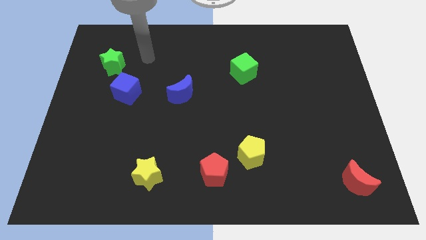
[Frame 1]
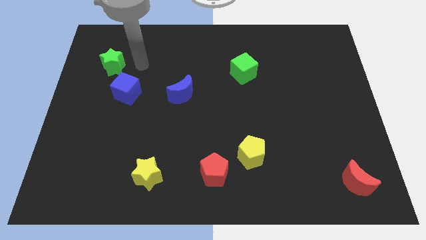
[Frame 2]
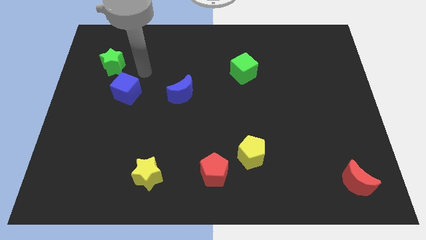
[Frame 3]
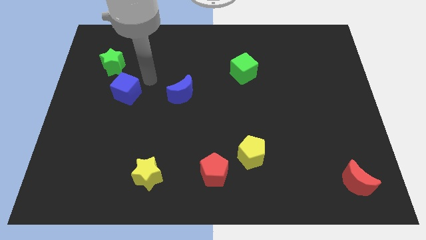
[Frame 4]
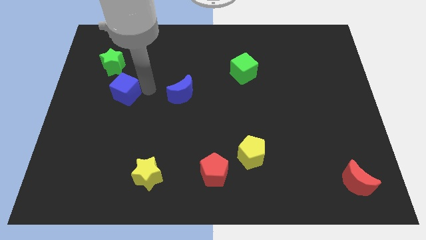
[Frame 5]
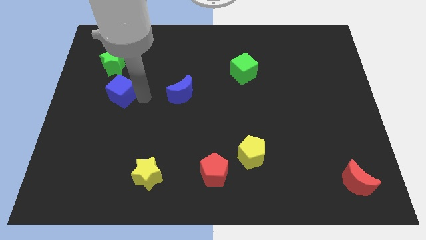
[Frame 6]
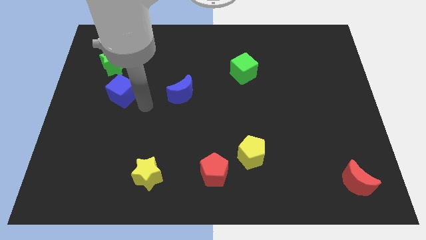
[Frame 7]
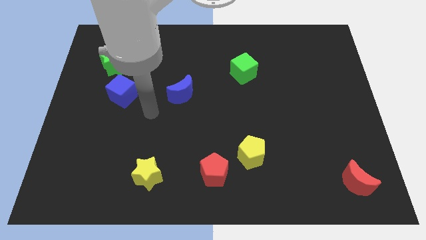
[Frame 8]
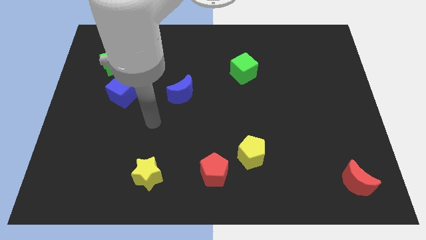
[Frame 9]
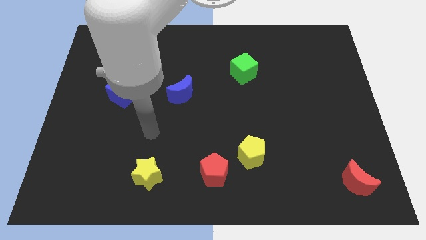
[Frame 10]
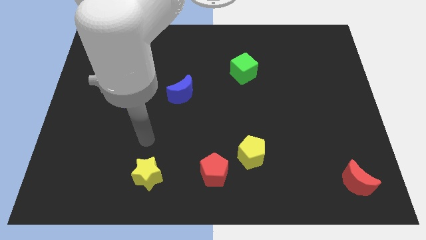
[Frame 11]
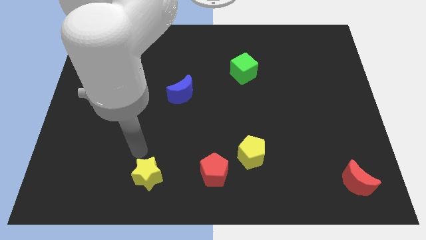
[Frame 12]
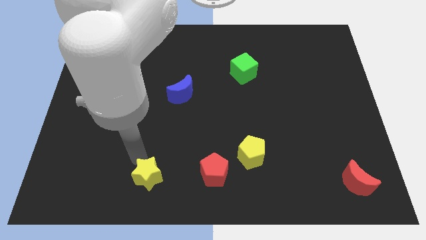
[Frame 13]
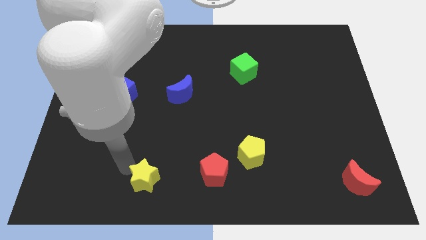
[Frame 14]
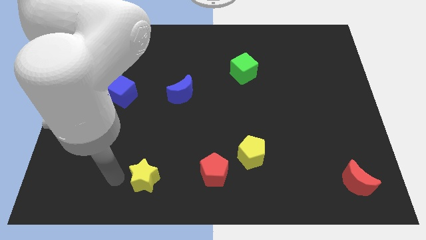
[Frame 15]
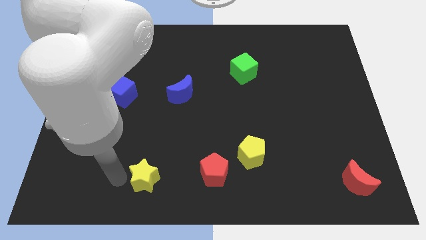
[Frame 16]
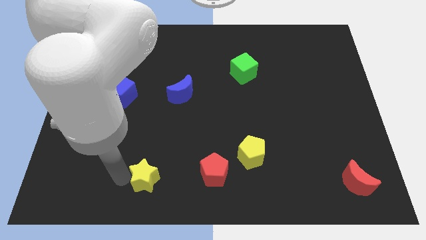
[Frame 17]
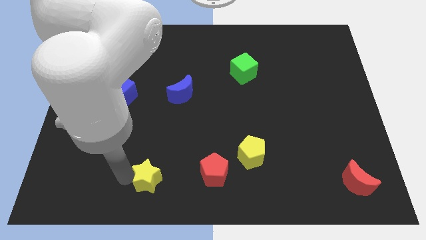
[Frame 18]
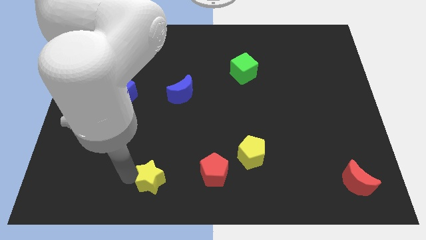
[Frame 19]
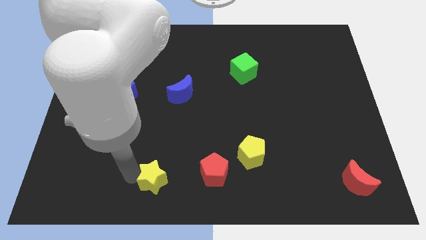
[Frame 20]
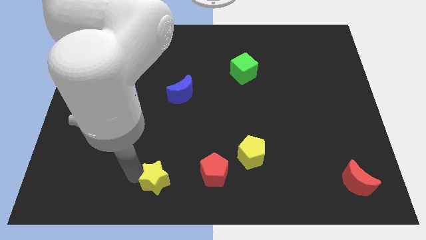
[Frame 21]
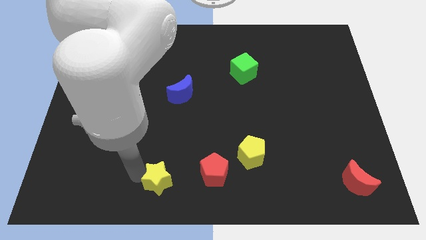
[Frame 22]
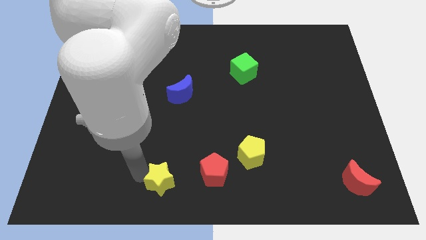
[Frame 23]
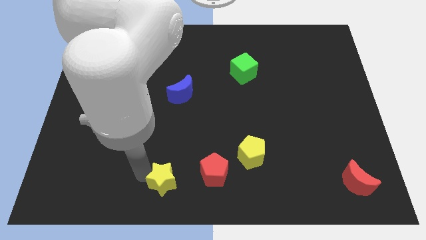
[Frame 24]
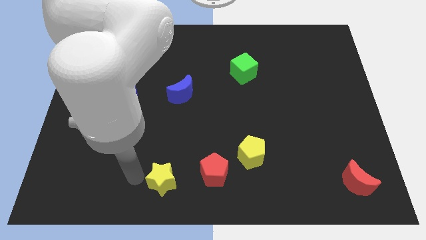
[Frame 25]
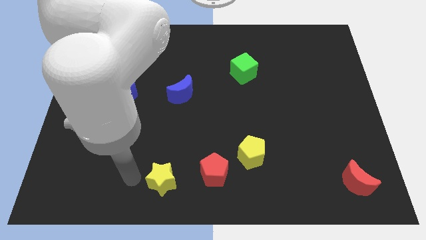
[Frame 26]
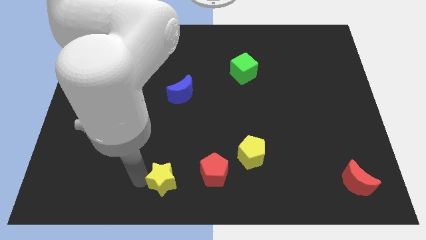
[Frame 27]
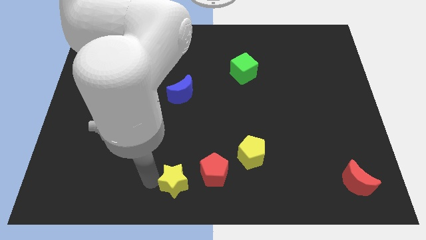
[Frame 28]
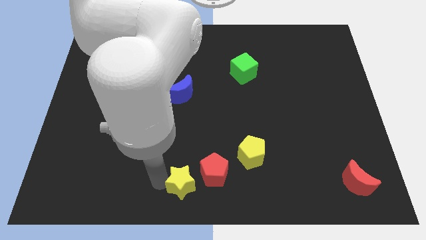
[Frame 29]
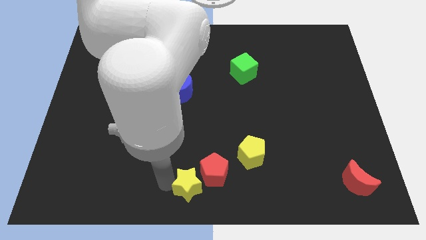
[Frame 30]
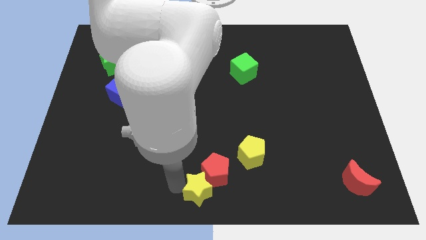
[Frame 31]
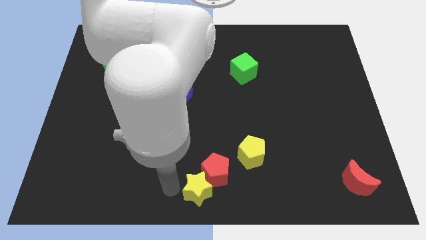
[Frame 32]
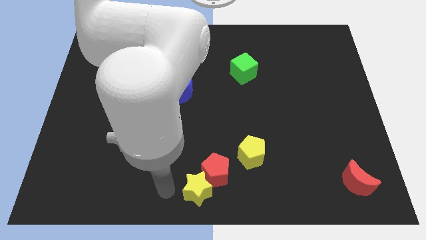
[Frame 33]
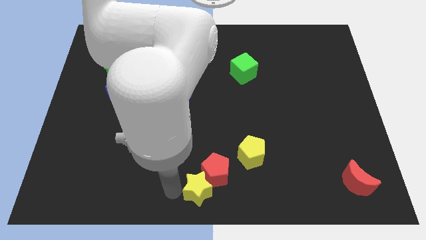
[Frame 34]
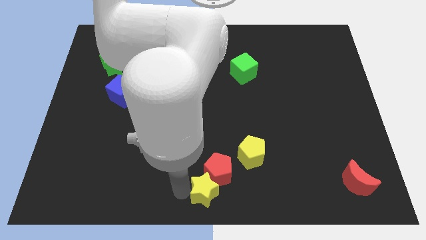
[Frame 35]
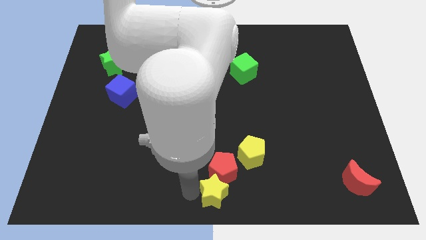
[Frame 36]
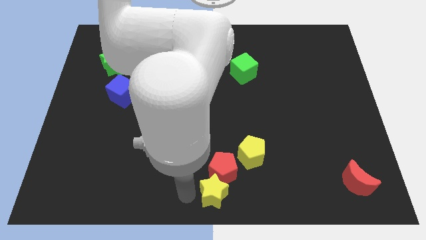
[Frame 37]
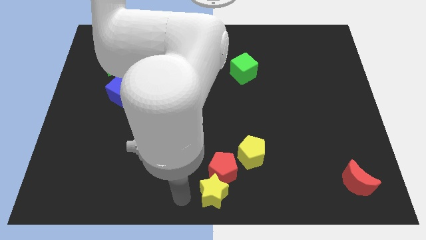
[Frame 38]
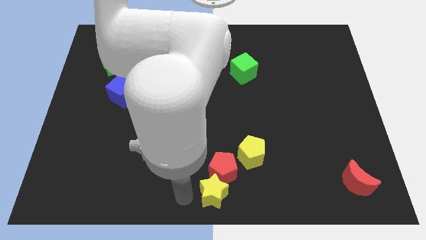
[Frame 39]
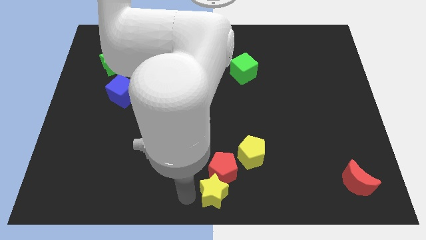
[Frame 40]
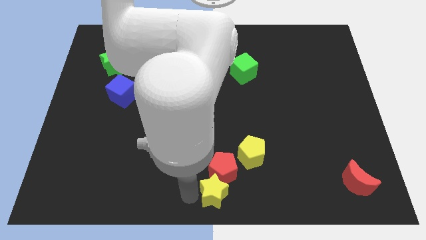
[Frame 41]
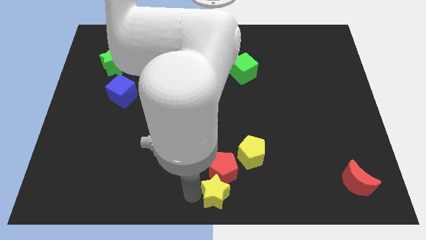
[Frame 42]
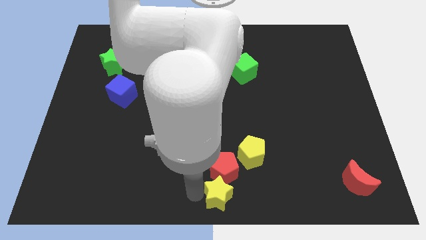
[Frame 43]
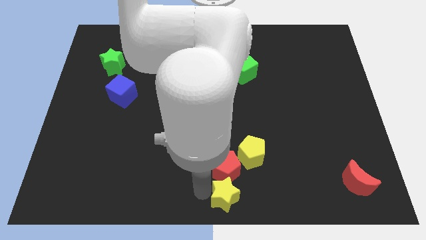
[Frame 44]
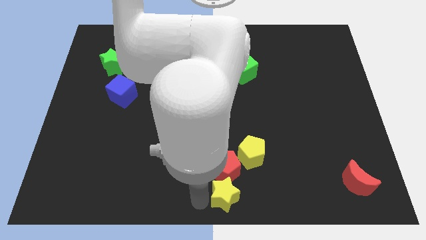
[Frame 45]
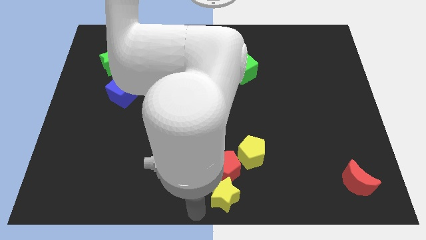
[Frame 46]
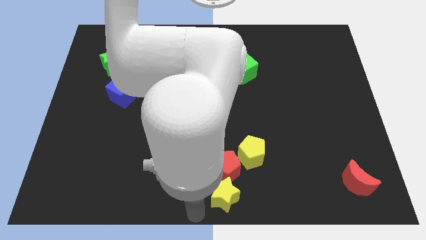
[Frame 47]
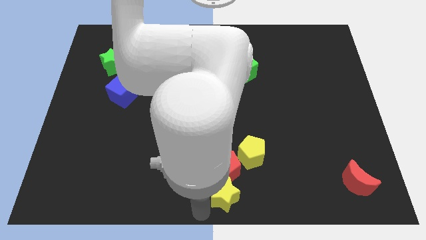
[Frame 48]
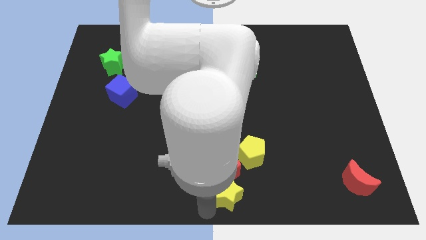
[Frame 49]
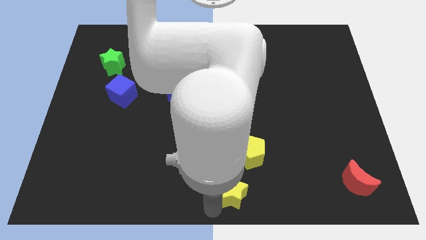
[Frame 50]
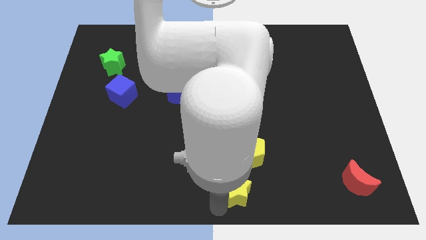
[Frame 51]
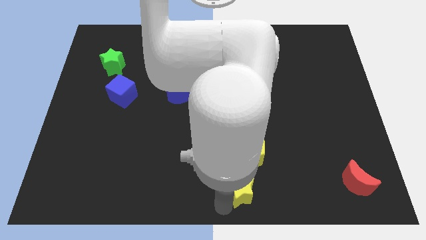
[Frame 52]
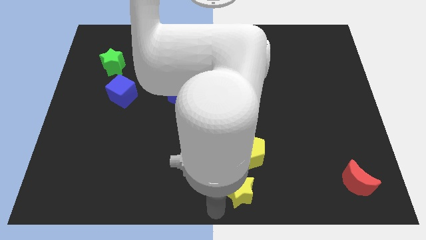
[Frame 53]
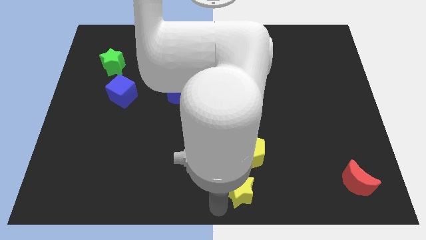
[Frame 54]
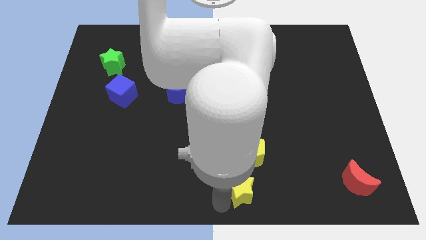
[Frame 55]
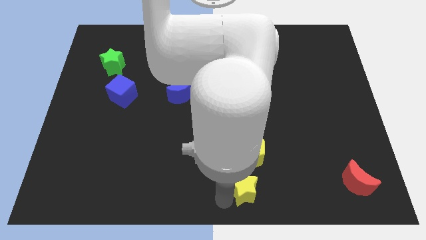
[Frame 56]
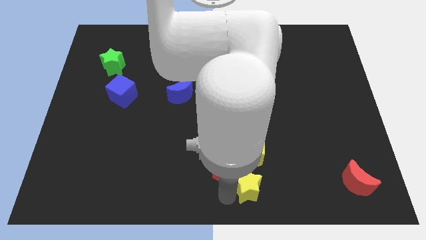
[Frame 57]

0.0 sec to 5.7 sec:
put the yellow star right of the red pentagon

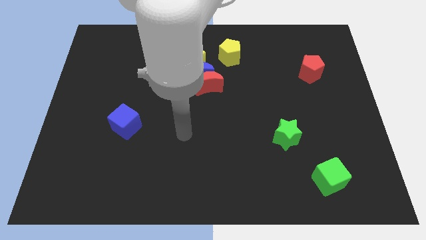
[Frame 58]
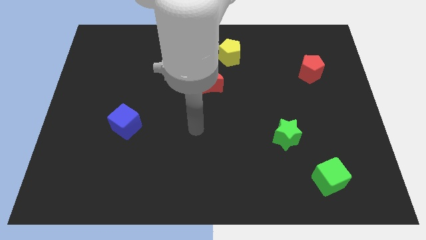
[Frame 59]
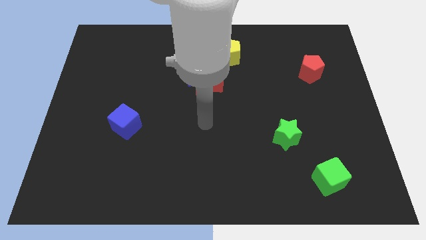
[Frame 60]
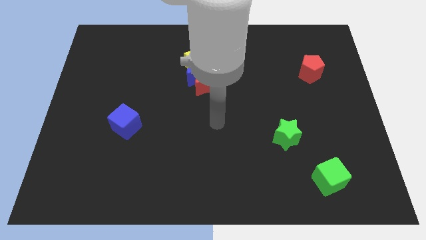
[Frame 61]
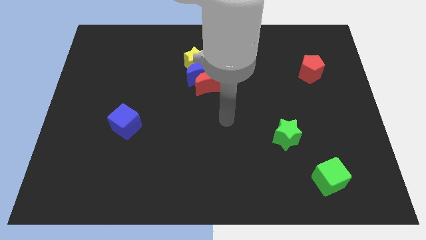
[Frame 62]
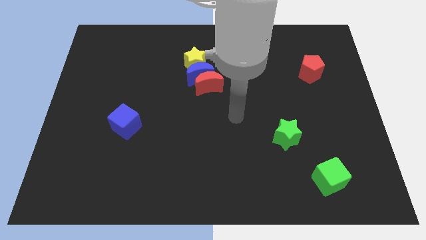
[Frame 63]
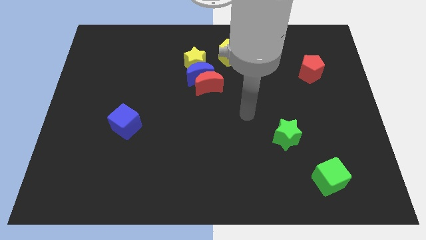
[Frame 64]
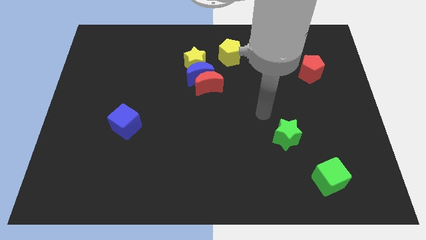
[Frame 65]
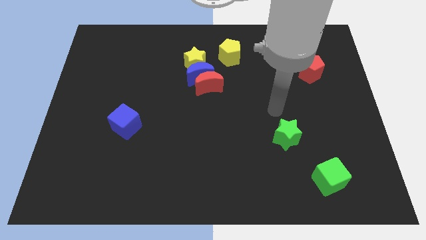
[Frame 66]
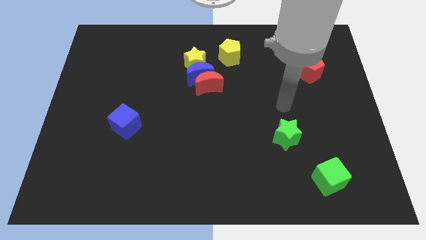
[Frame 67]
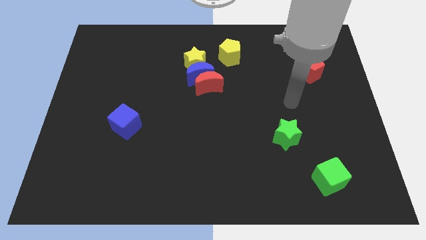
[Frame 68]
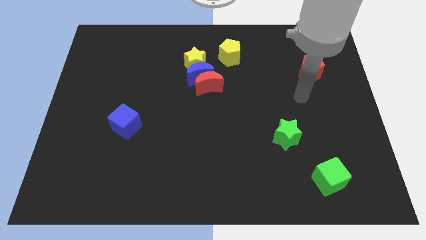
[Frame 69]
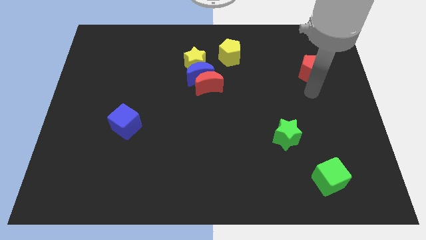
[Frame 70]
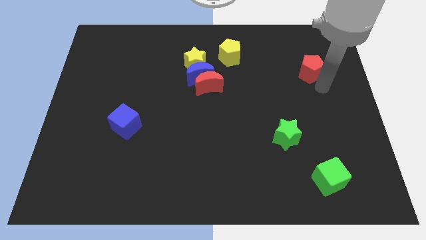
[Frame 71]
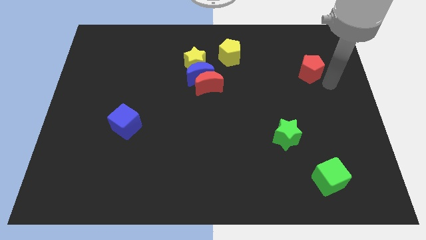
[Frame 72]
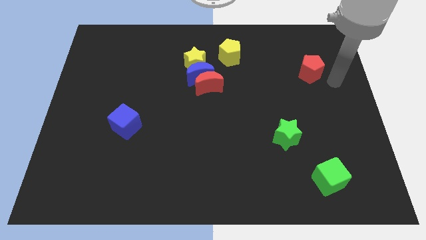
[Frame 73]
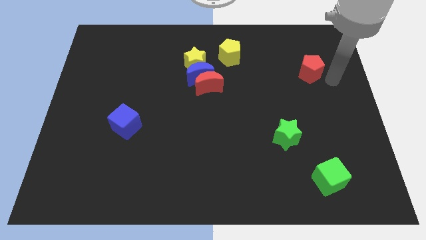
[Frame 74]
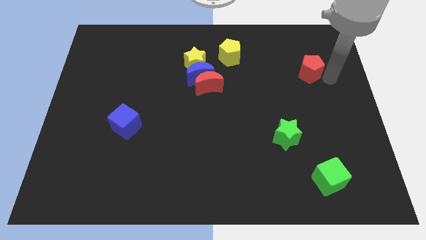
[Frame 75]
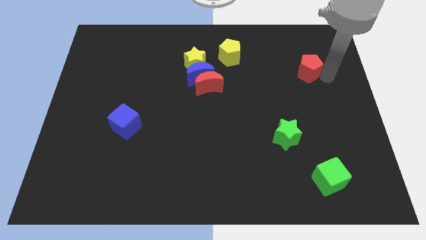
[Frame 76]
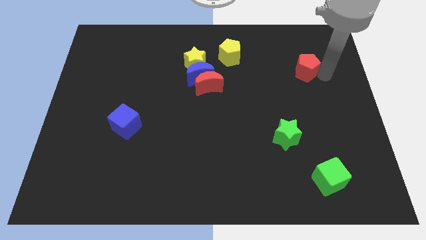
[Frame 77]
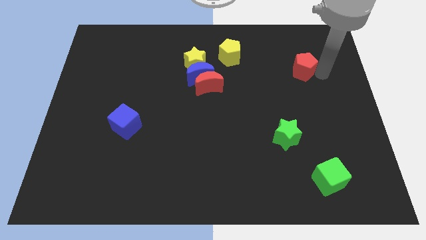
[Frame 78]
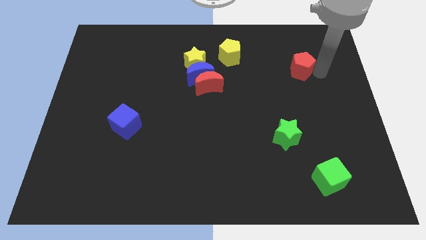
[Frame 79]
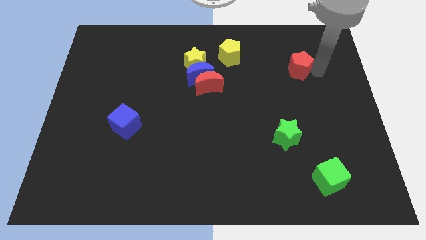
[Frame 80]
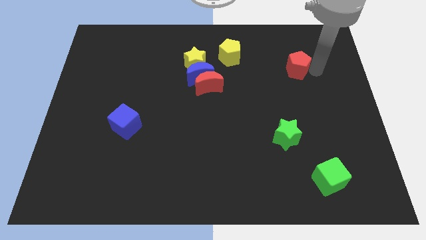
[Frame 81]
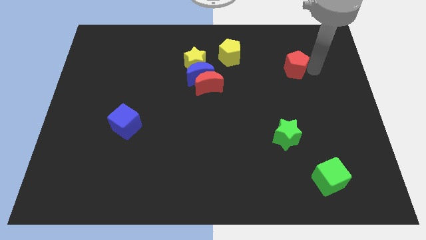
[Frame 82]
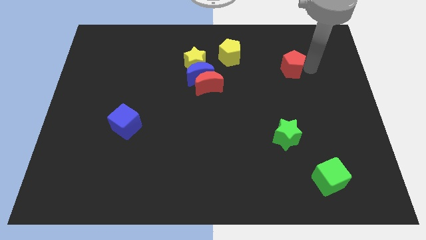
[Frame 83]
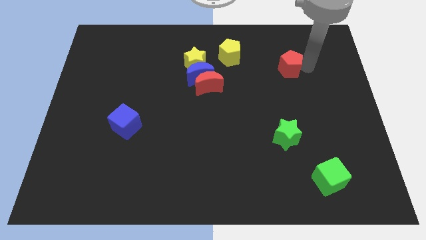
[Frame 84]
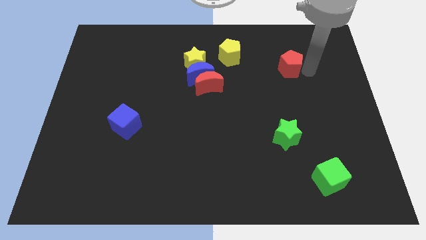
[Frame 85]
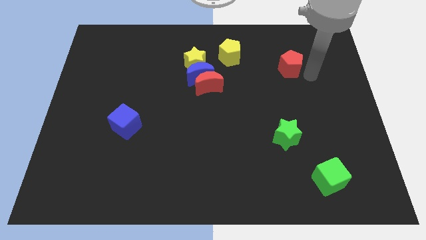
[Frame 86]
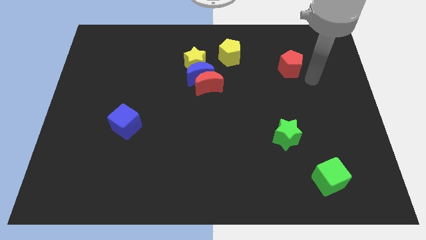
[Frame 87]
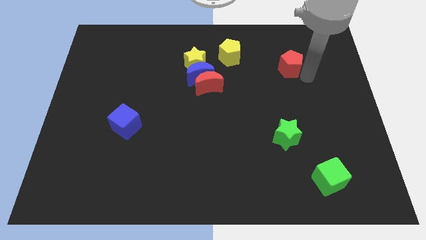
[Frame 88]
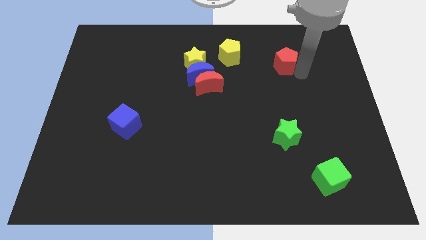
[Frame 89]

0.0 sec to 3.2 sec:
move the red pentagon to the right side of the yellow pentagon
